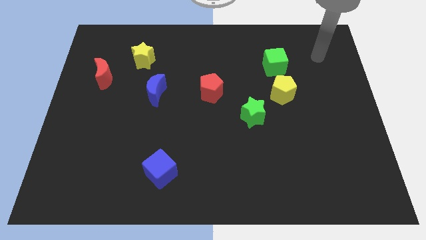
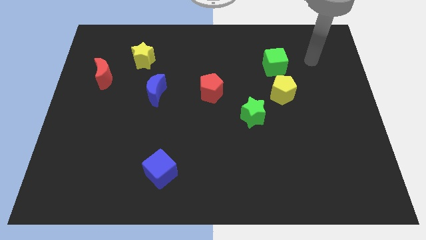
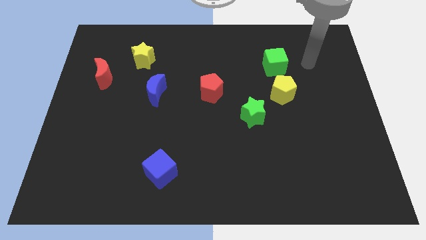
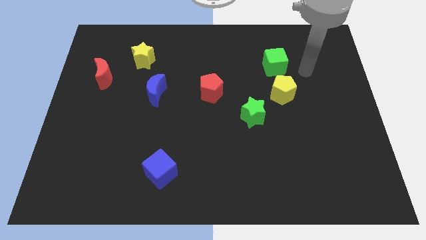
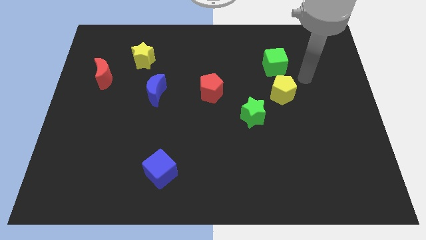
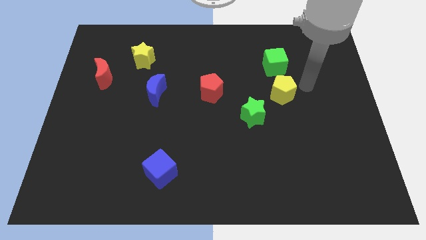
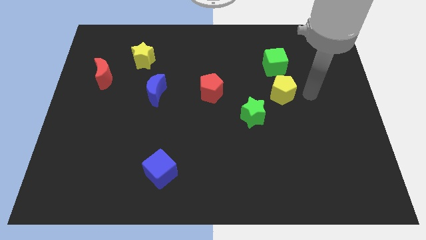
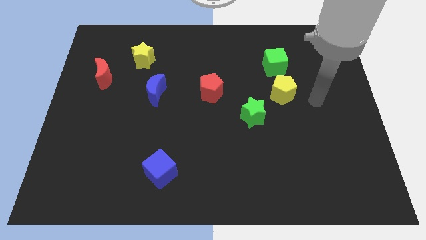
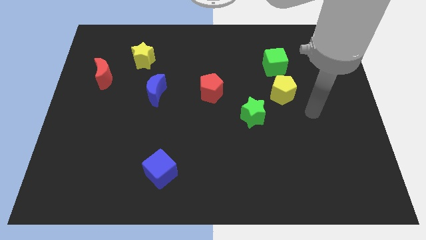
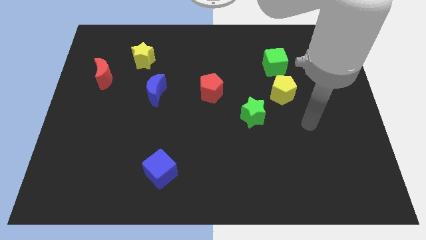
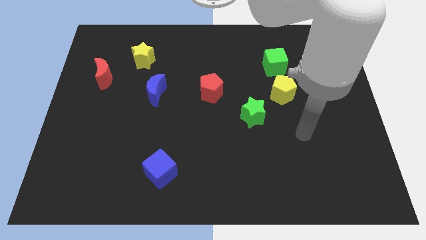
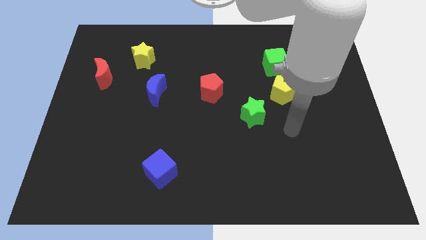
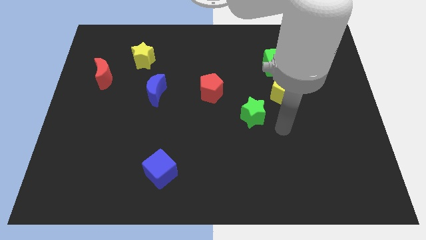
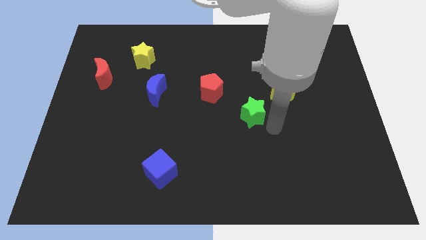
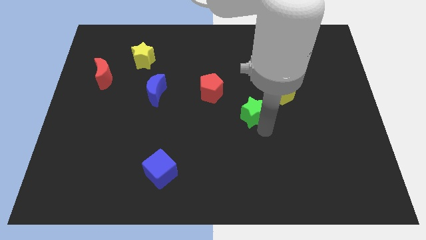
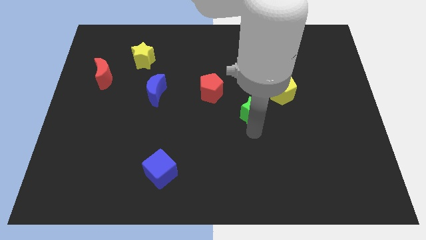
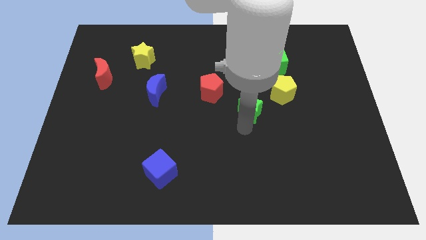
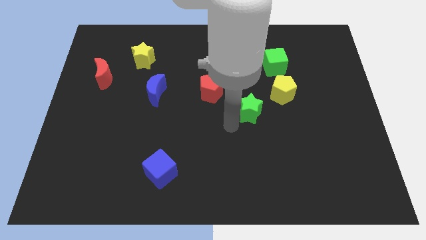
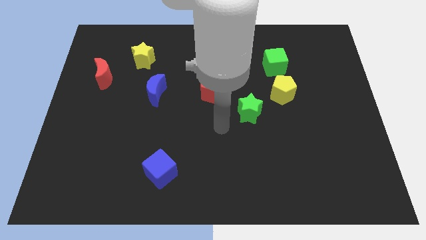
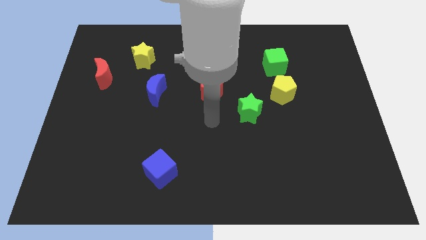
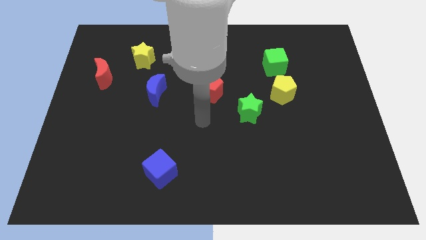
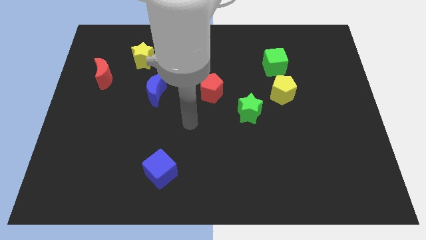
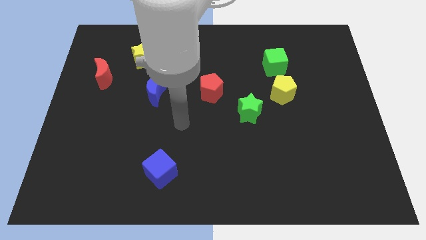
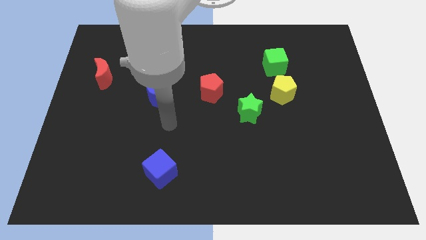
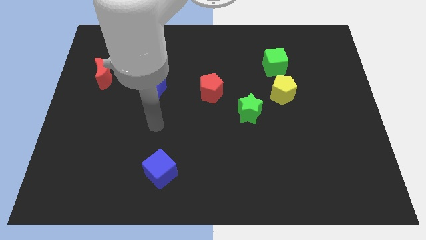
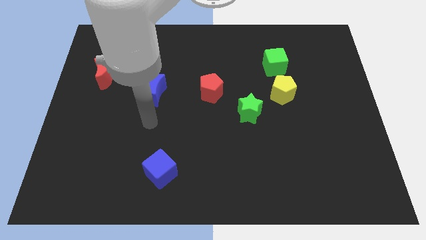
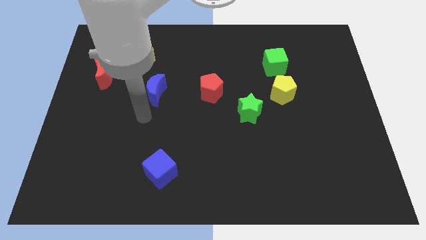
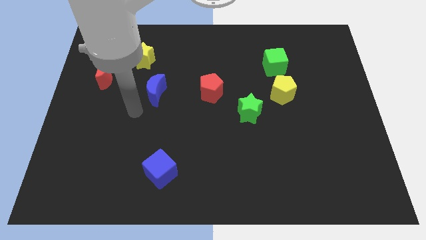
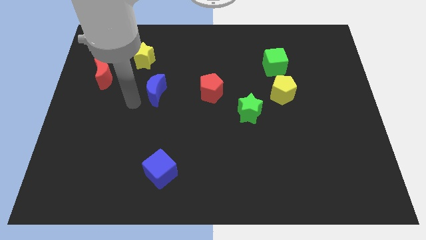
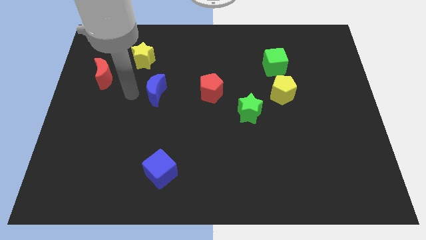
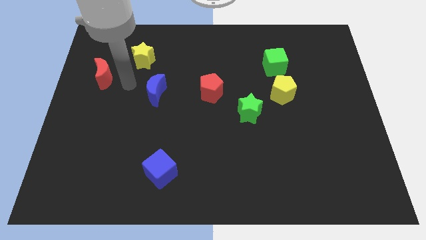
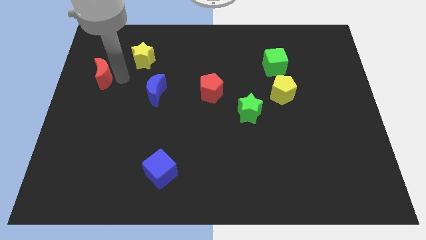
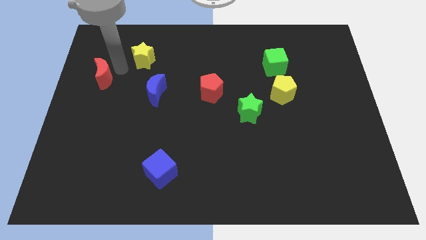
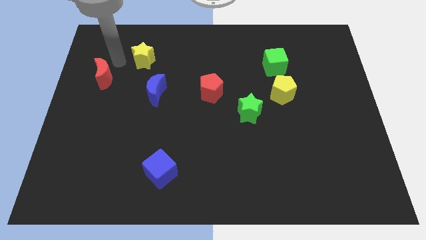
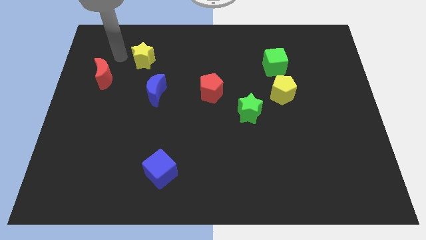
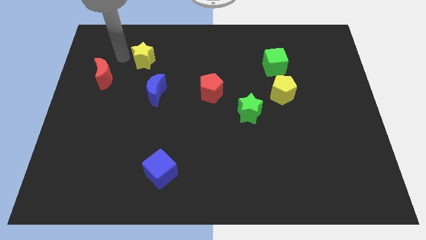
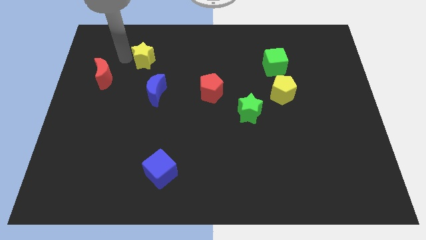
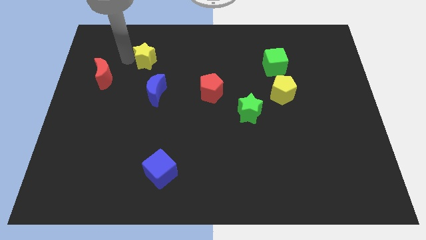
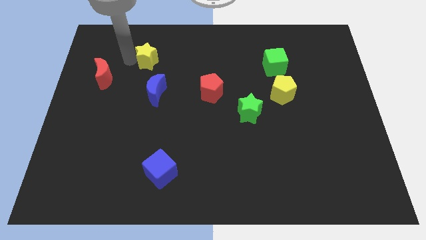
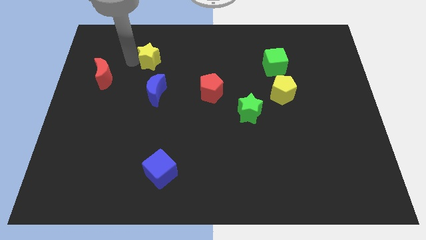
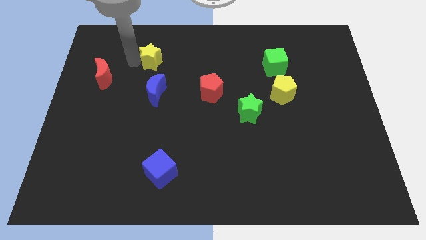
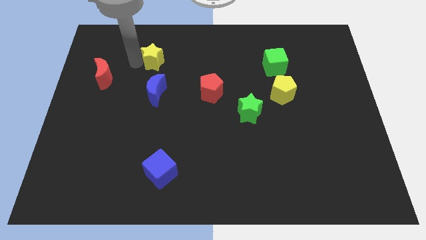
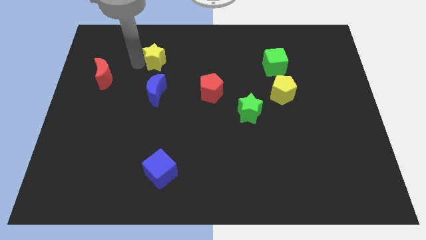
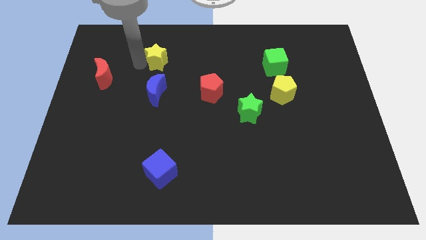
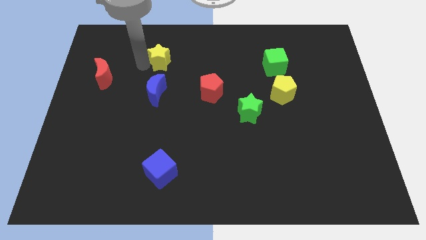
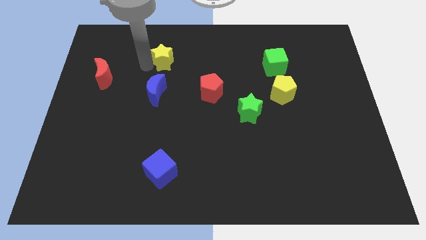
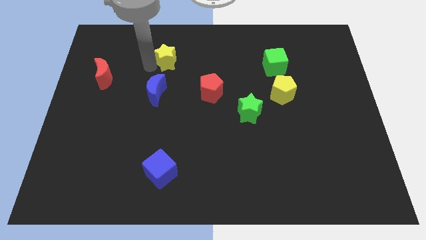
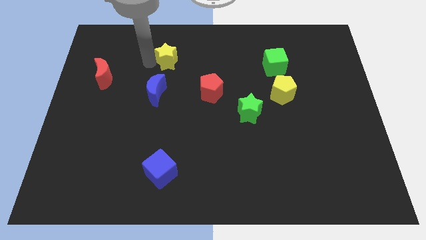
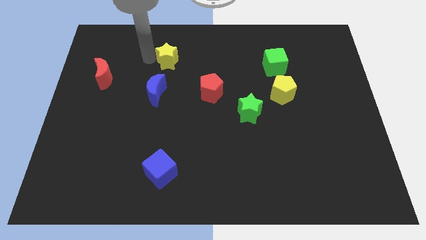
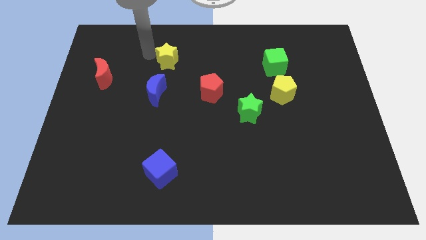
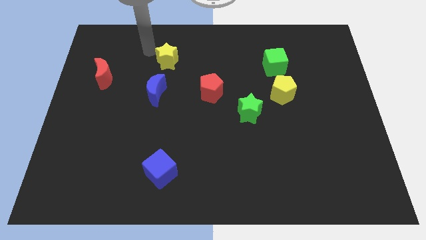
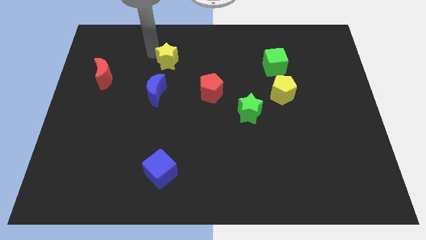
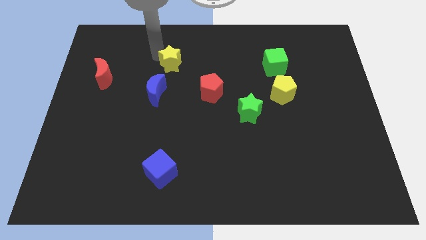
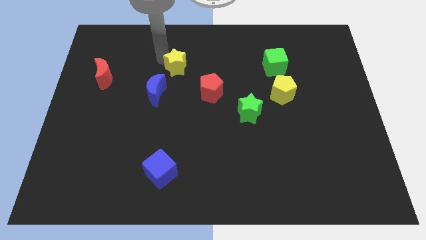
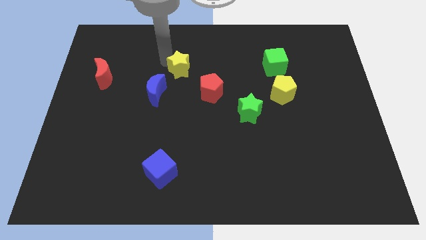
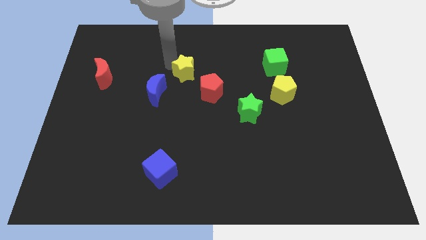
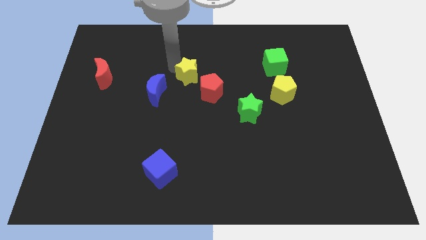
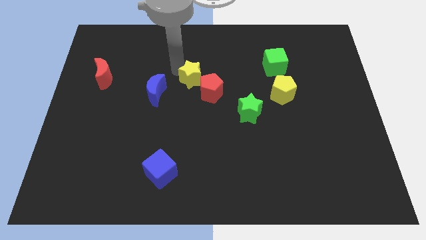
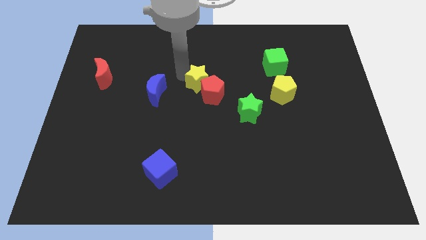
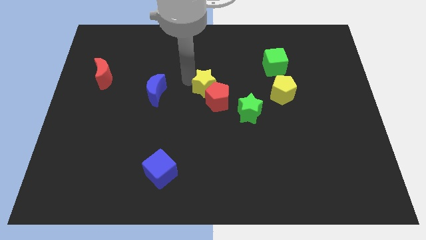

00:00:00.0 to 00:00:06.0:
slide the yellow star to the top left side of the green star

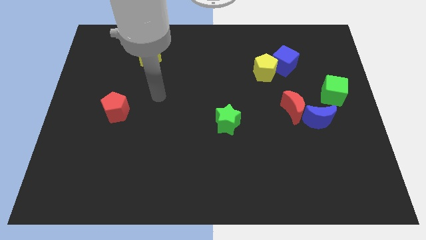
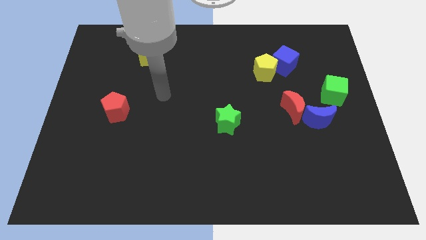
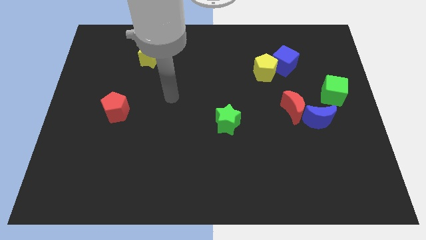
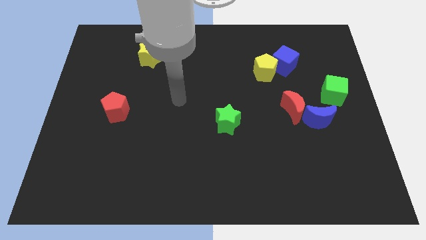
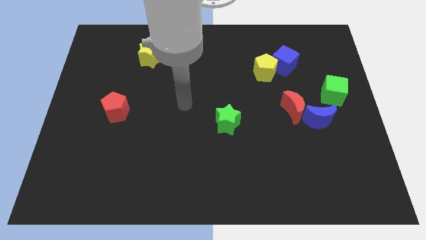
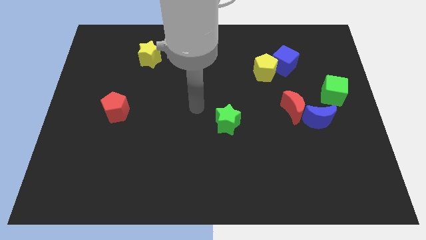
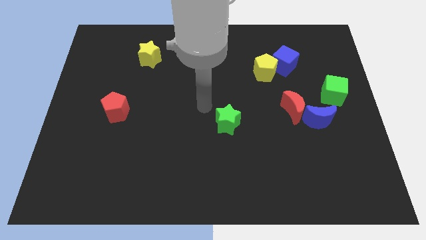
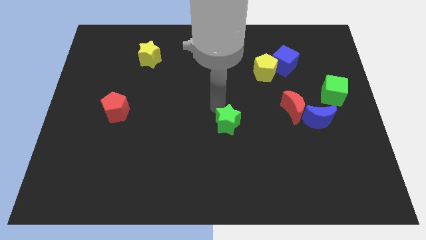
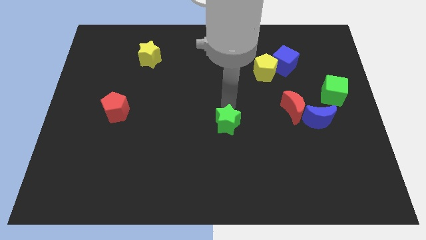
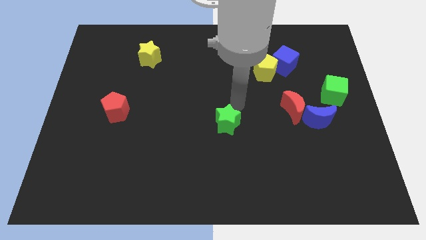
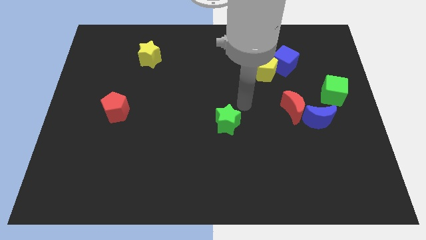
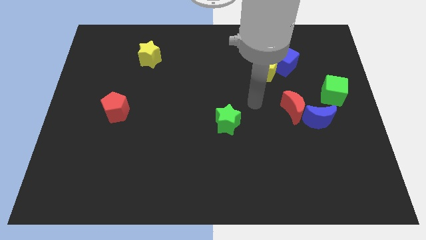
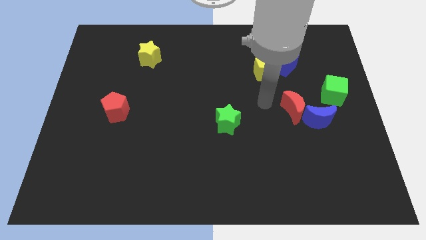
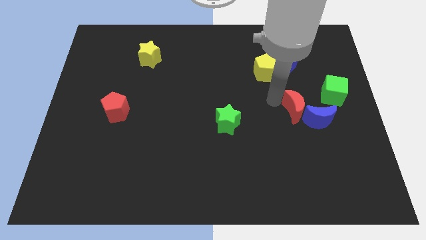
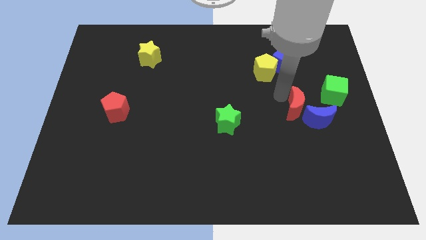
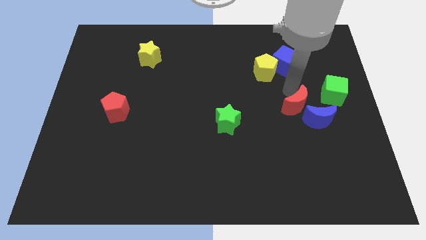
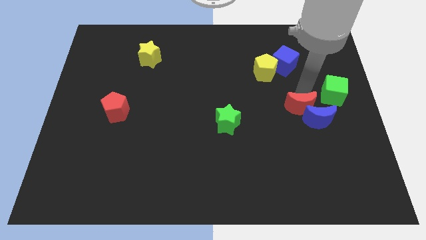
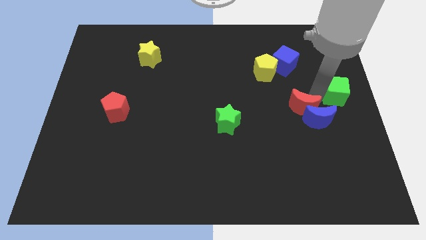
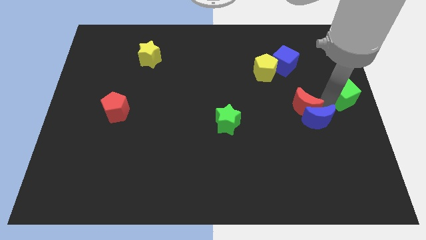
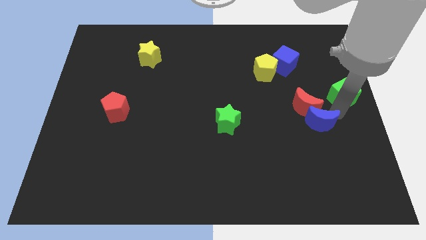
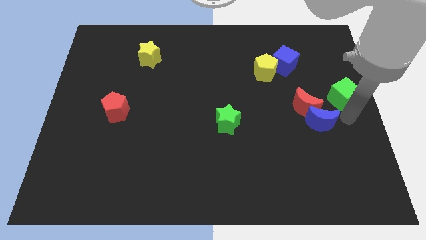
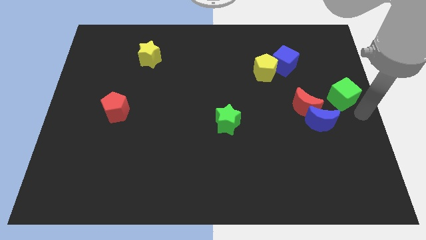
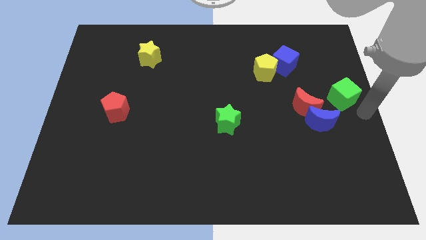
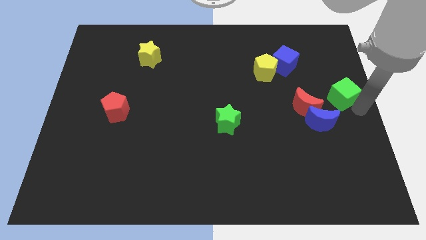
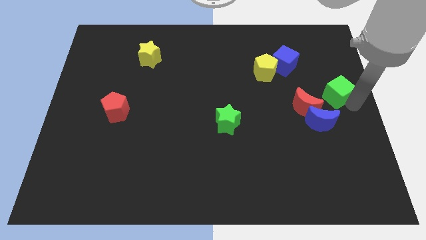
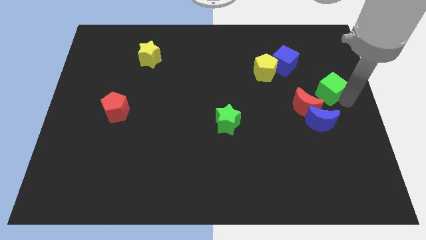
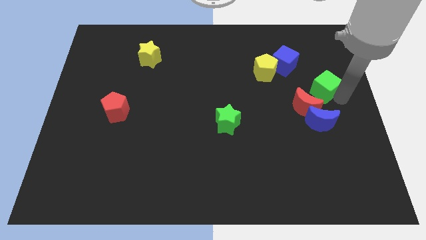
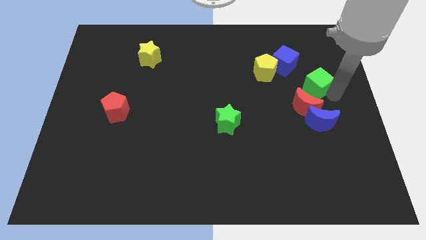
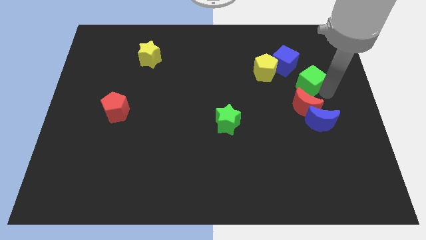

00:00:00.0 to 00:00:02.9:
move the green cube to the right of the yellow pentagon
